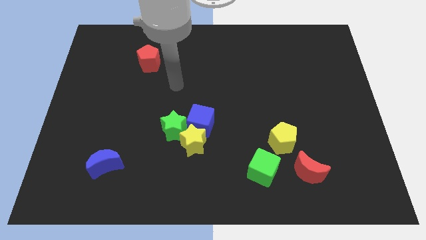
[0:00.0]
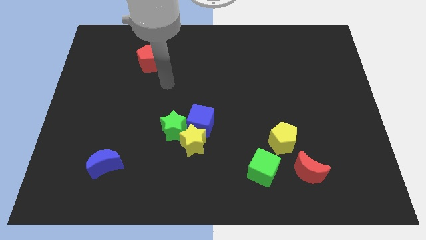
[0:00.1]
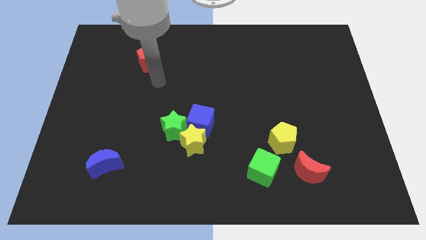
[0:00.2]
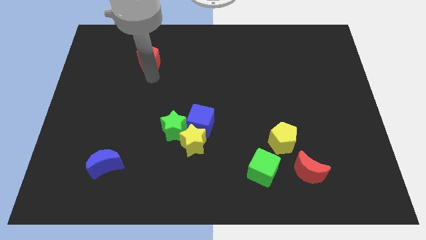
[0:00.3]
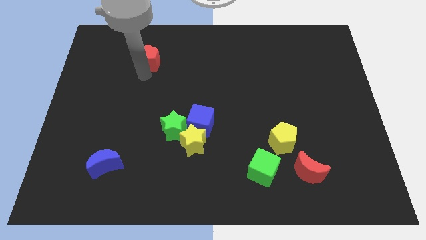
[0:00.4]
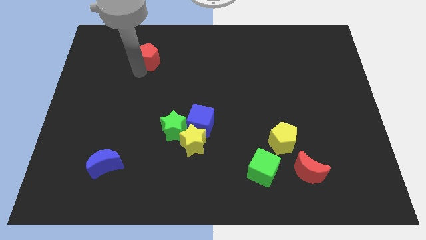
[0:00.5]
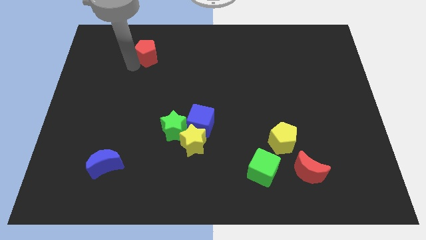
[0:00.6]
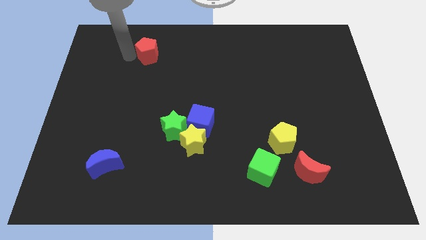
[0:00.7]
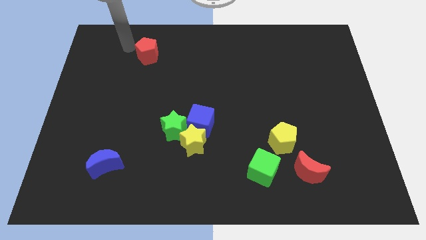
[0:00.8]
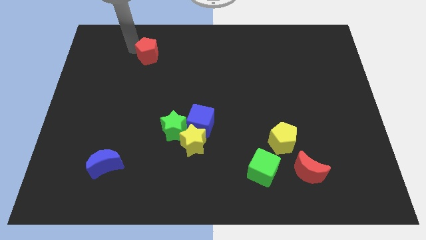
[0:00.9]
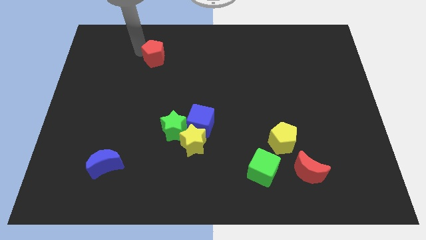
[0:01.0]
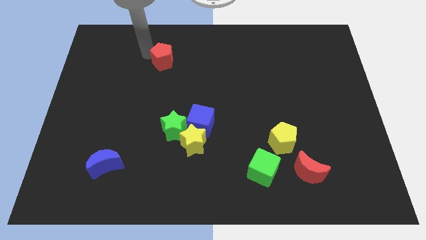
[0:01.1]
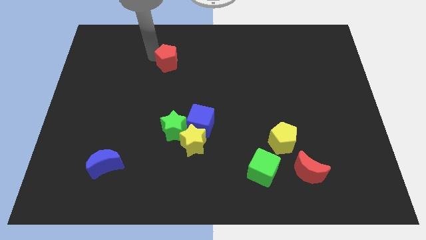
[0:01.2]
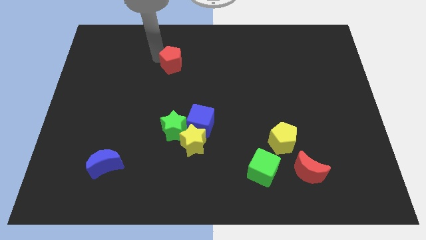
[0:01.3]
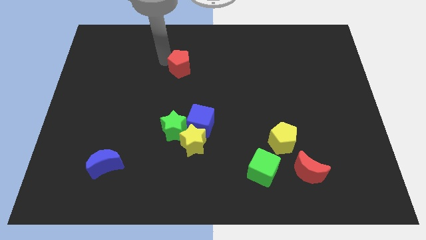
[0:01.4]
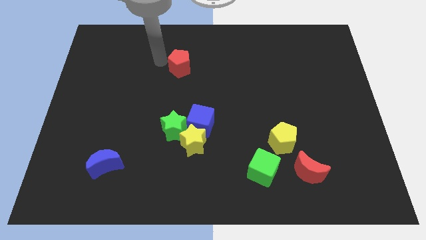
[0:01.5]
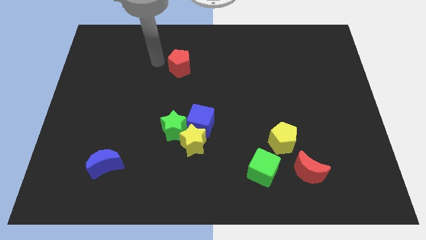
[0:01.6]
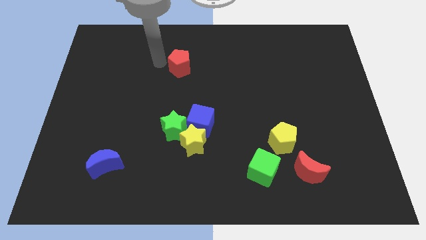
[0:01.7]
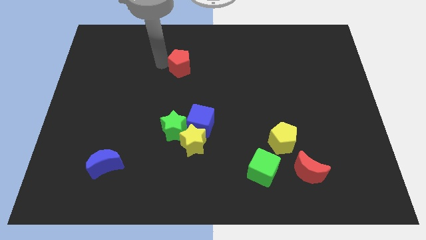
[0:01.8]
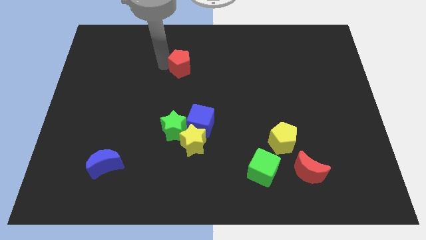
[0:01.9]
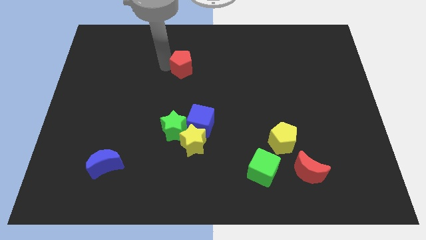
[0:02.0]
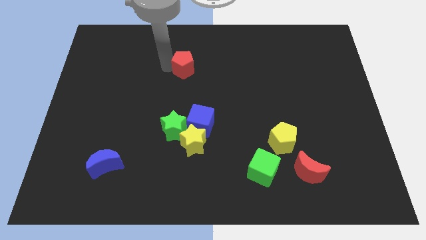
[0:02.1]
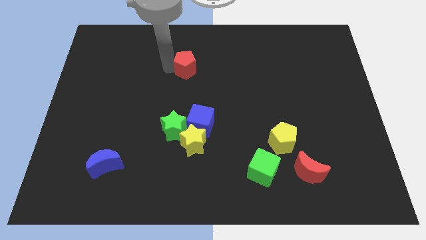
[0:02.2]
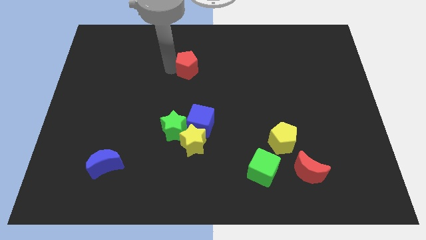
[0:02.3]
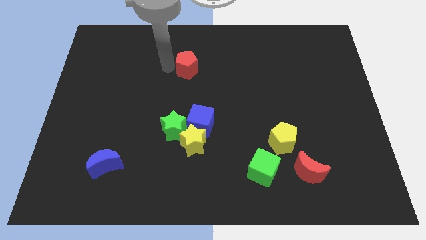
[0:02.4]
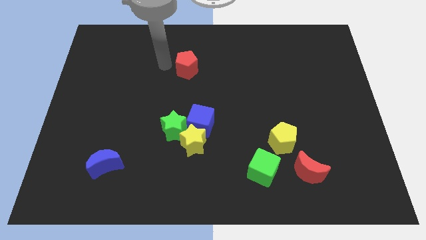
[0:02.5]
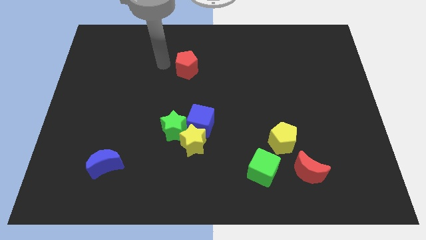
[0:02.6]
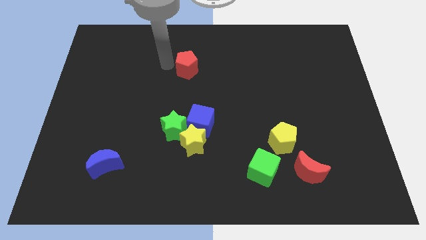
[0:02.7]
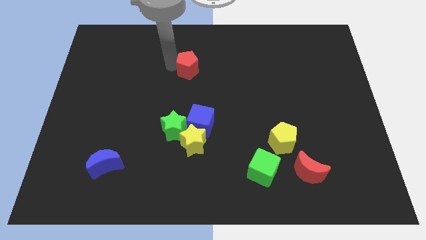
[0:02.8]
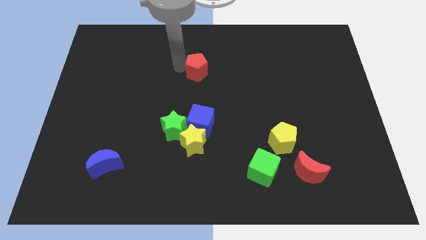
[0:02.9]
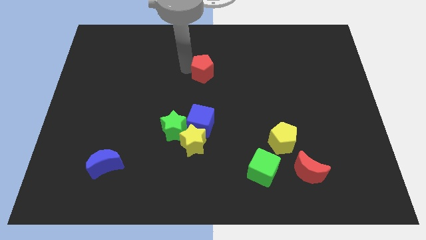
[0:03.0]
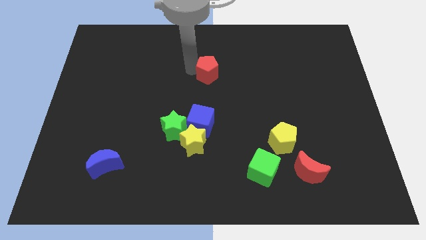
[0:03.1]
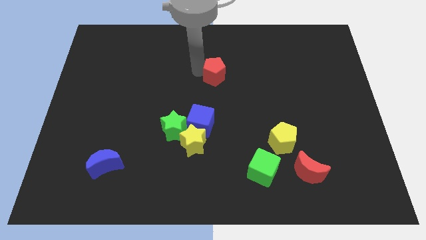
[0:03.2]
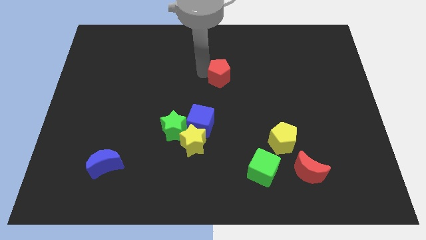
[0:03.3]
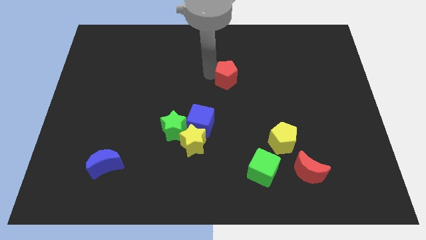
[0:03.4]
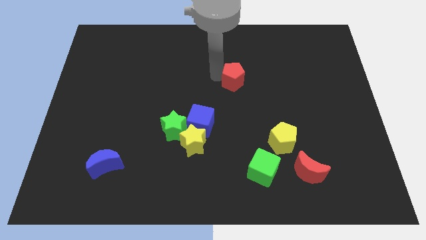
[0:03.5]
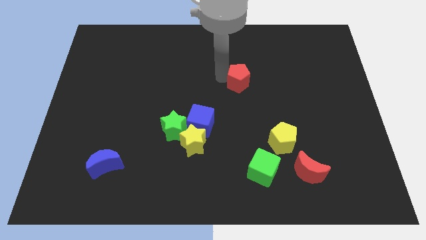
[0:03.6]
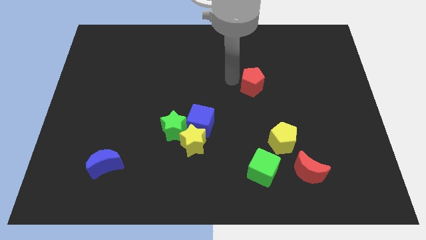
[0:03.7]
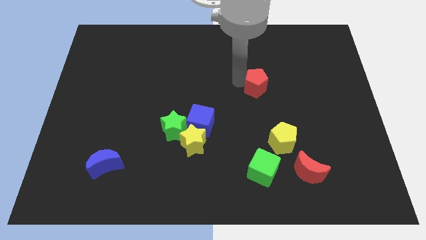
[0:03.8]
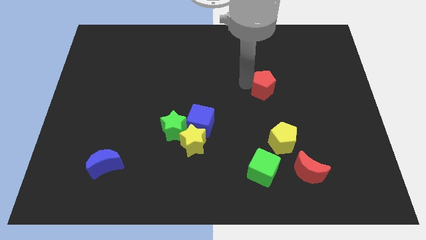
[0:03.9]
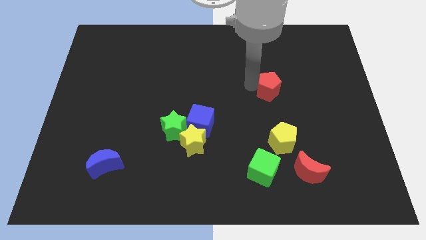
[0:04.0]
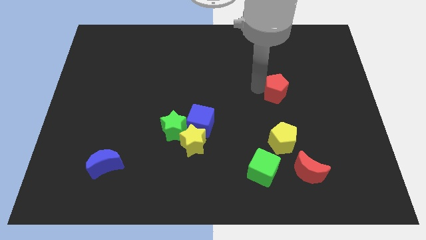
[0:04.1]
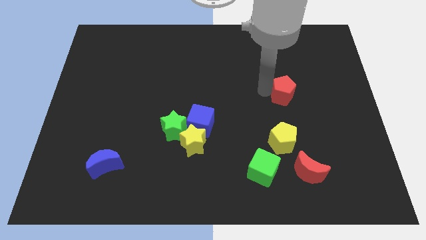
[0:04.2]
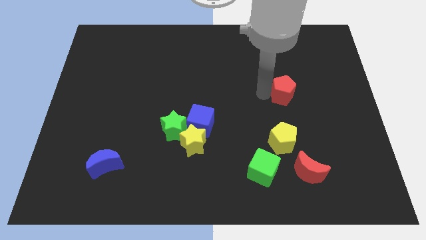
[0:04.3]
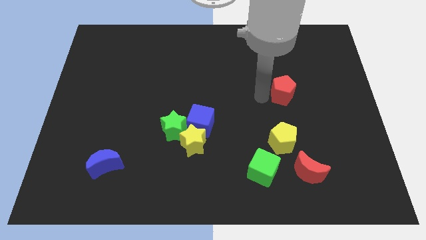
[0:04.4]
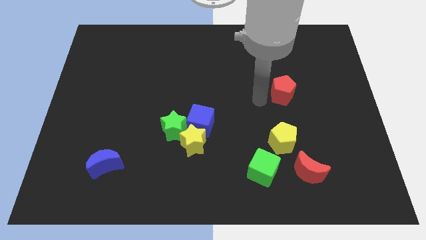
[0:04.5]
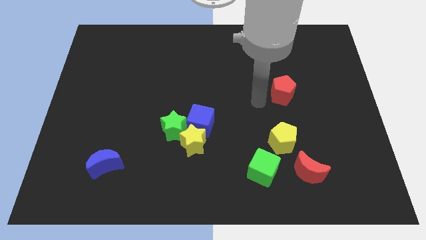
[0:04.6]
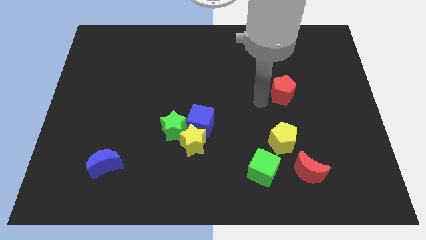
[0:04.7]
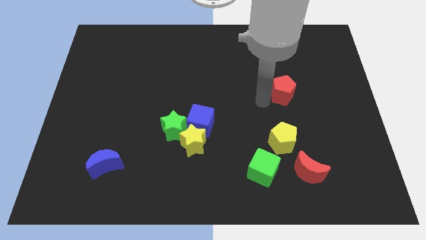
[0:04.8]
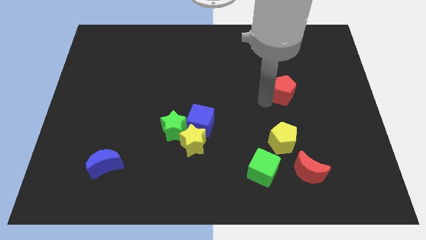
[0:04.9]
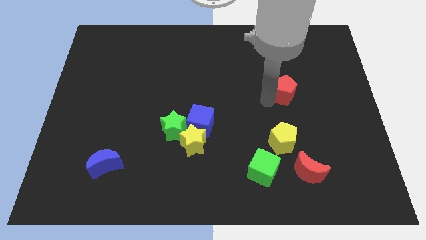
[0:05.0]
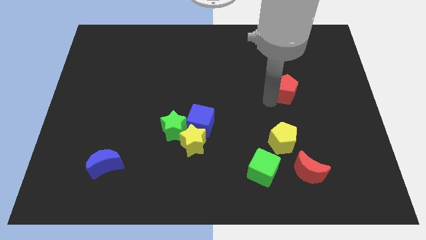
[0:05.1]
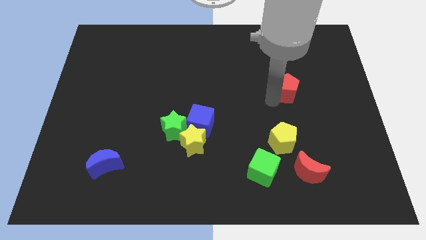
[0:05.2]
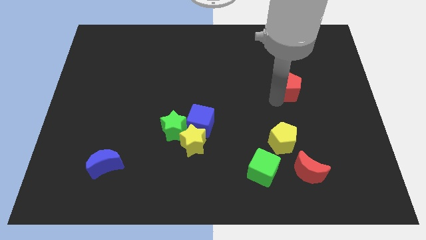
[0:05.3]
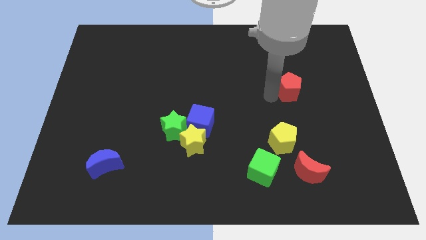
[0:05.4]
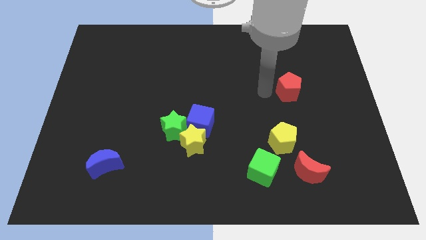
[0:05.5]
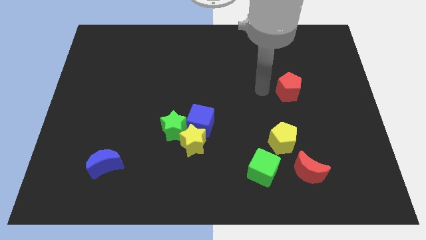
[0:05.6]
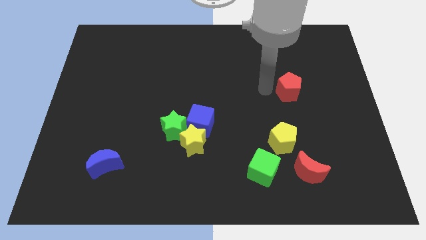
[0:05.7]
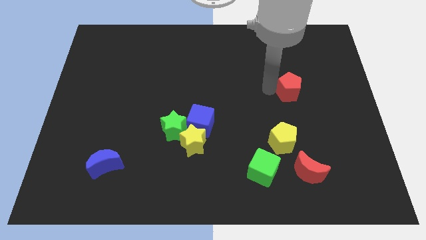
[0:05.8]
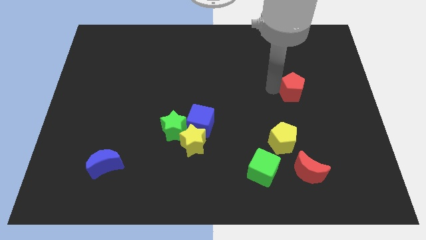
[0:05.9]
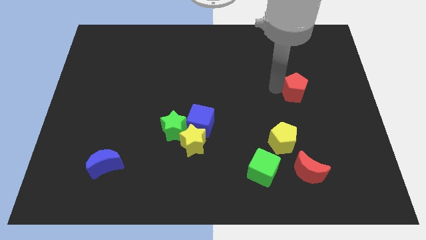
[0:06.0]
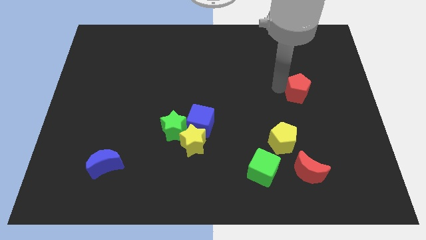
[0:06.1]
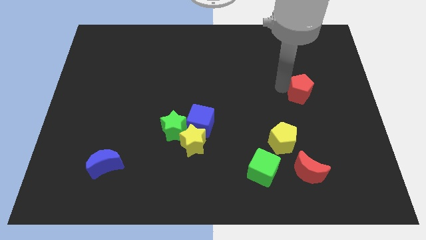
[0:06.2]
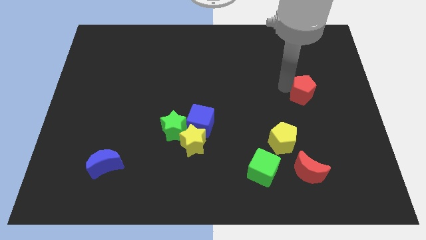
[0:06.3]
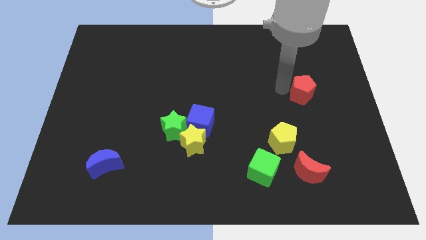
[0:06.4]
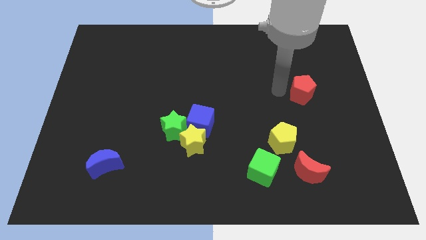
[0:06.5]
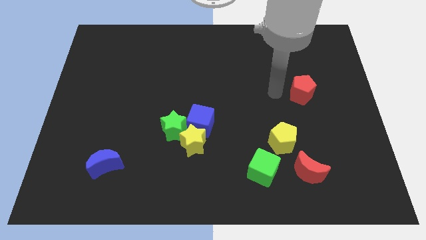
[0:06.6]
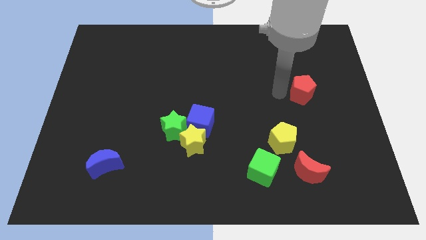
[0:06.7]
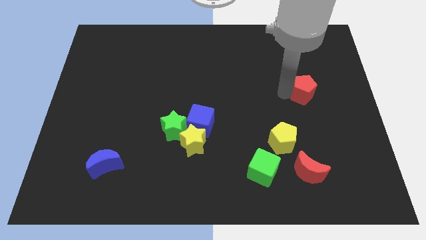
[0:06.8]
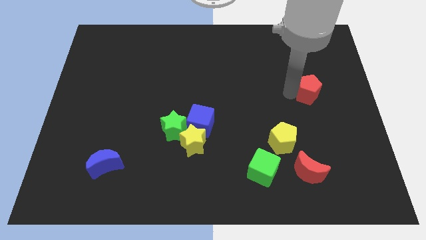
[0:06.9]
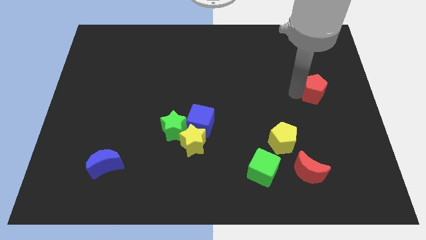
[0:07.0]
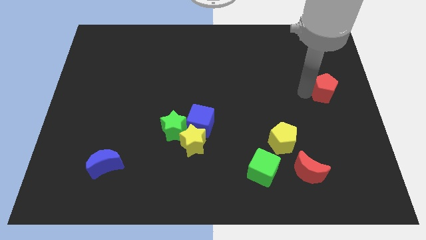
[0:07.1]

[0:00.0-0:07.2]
slide the red pentagon to the right side of the board
